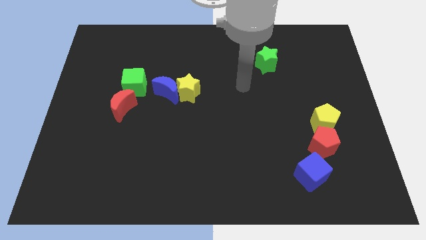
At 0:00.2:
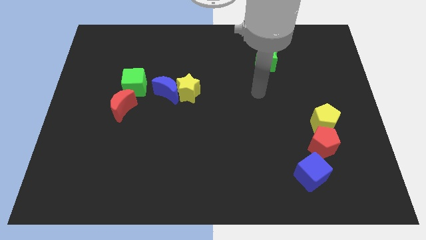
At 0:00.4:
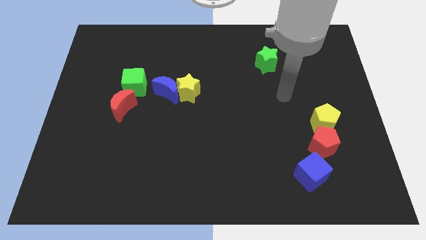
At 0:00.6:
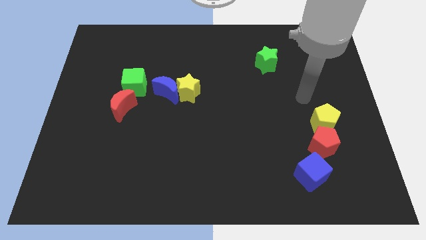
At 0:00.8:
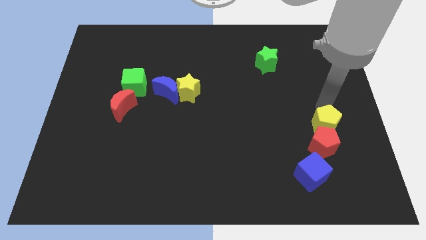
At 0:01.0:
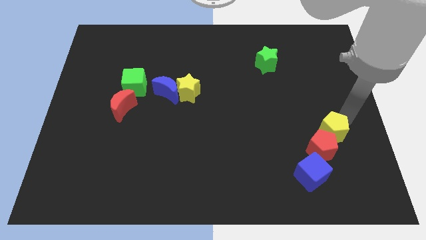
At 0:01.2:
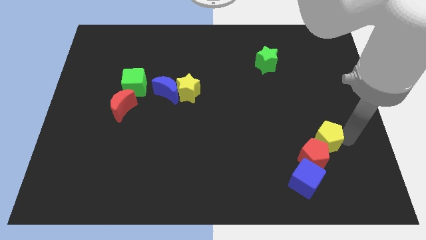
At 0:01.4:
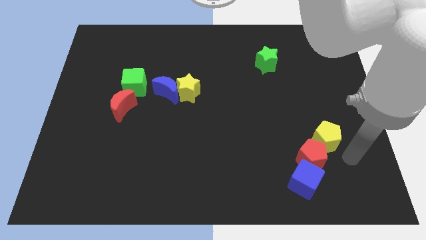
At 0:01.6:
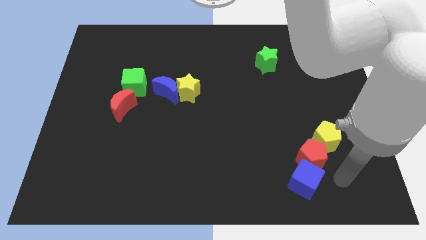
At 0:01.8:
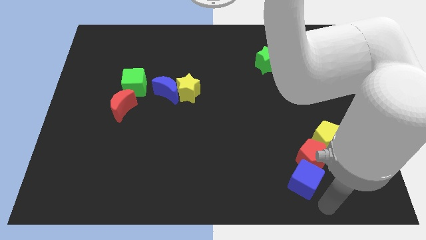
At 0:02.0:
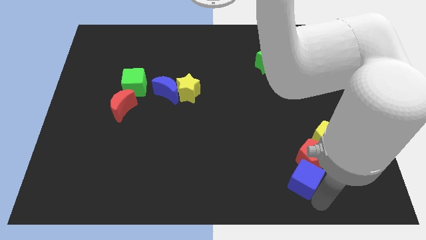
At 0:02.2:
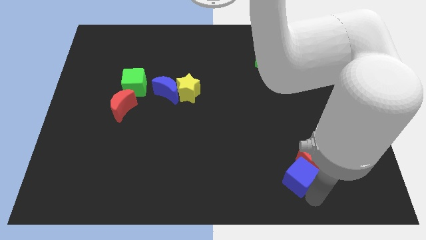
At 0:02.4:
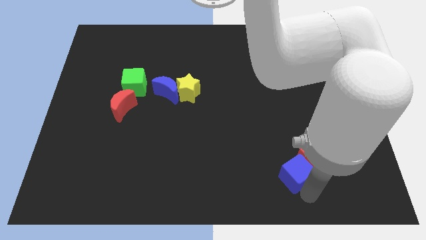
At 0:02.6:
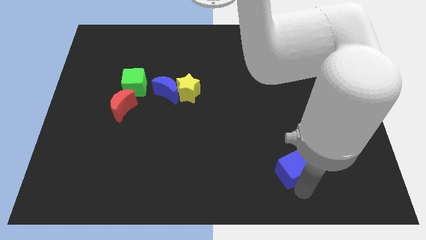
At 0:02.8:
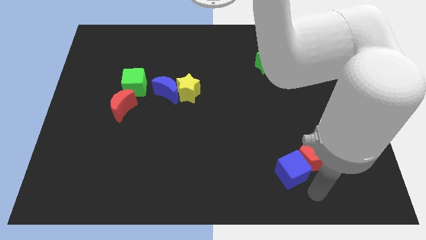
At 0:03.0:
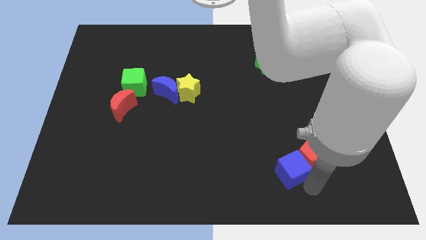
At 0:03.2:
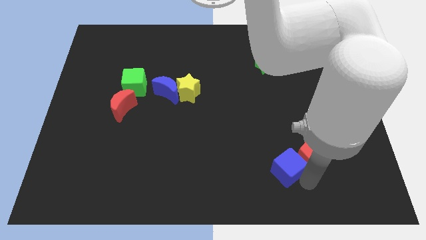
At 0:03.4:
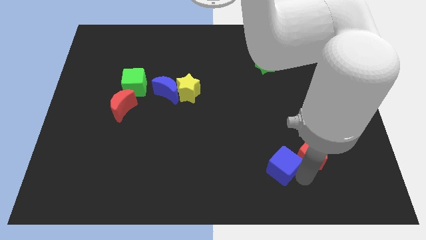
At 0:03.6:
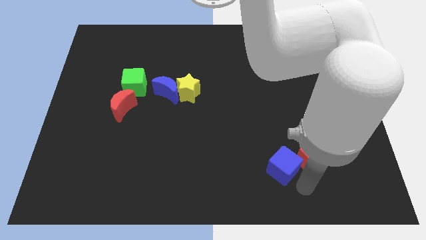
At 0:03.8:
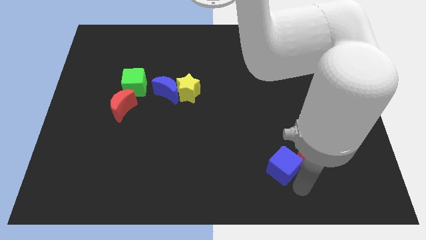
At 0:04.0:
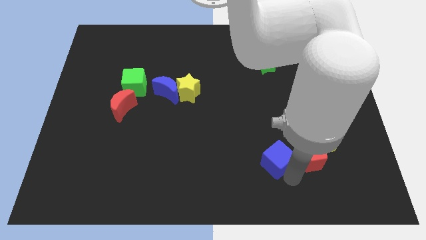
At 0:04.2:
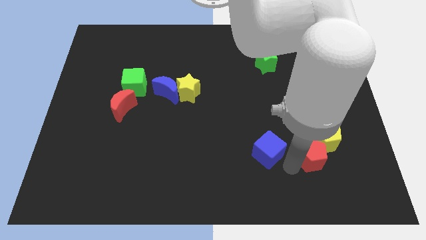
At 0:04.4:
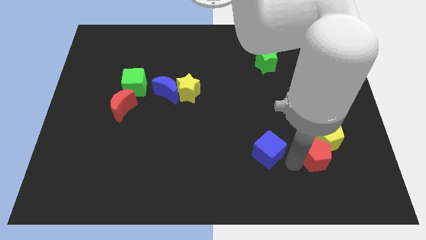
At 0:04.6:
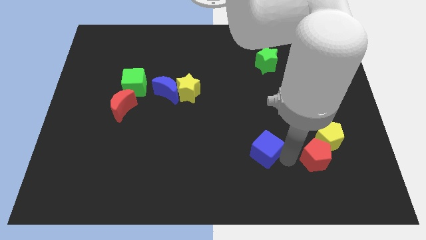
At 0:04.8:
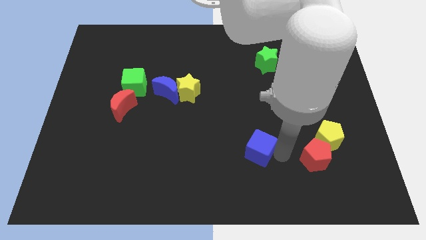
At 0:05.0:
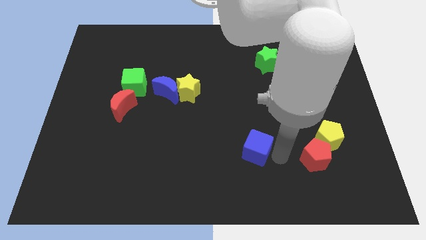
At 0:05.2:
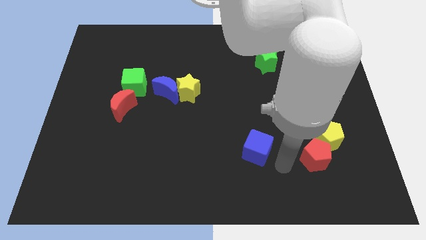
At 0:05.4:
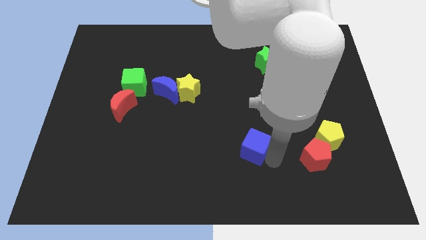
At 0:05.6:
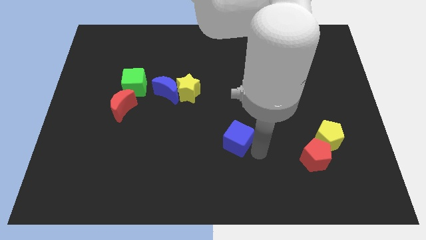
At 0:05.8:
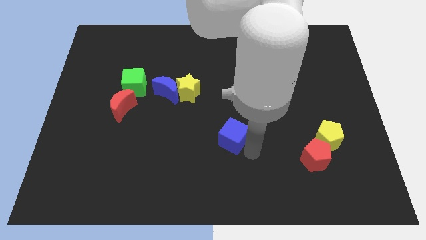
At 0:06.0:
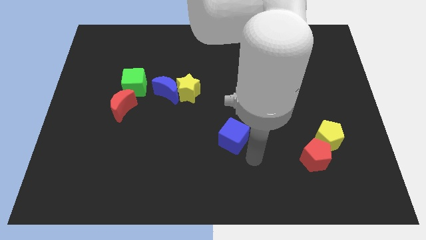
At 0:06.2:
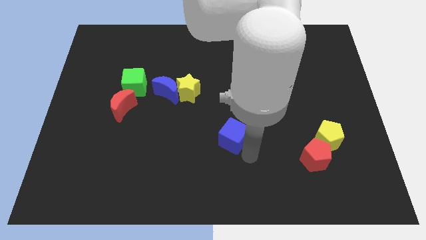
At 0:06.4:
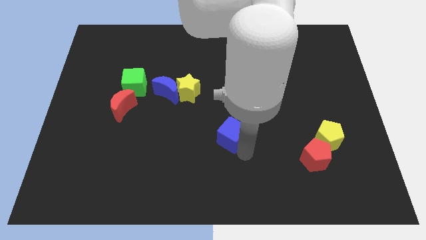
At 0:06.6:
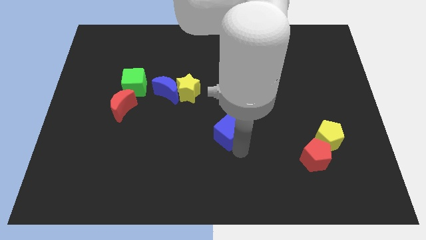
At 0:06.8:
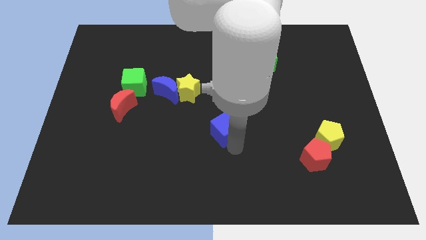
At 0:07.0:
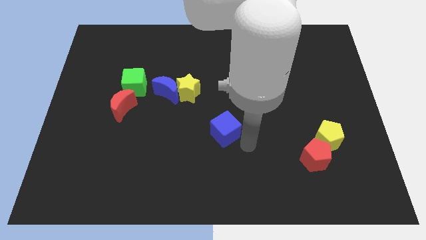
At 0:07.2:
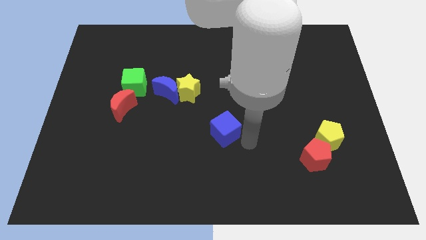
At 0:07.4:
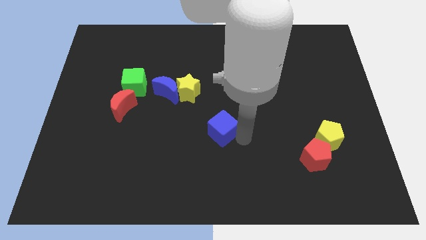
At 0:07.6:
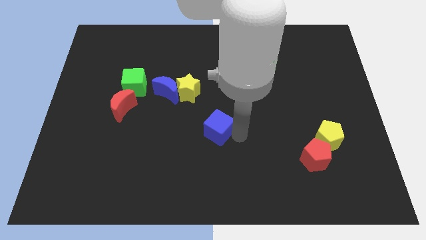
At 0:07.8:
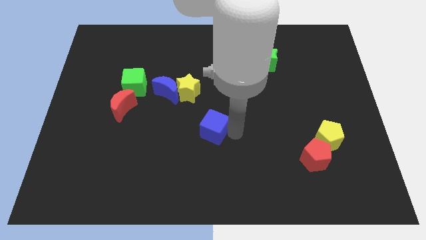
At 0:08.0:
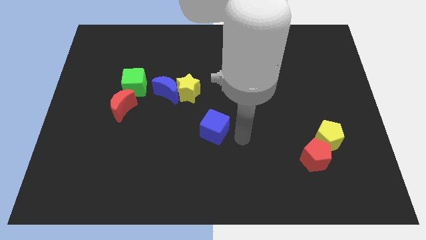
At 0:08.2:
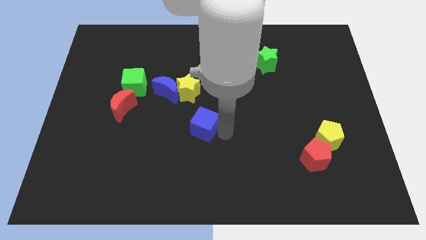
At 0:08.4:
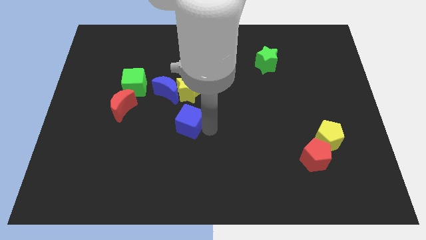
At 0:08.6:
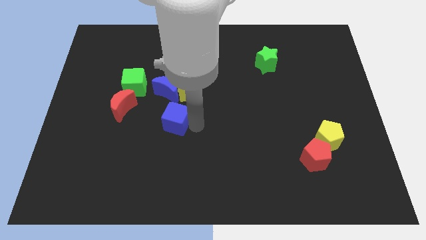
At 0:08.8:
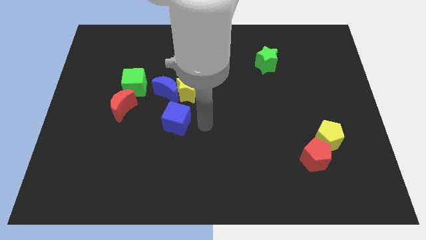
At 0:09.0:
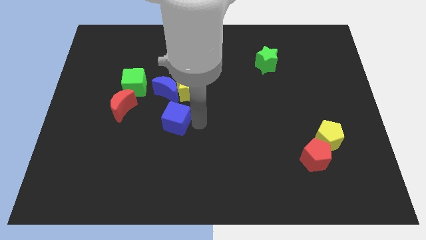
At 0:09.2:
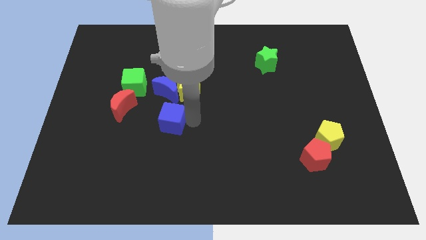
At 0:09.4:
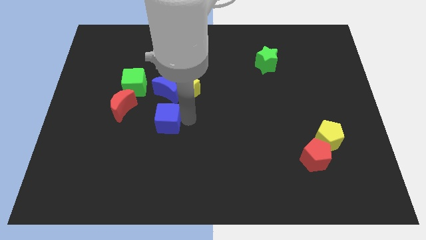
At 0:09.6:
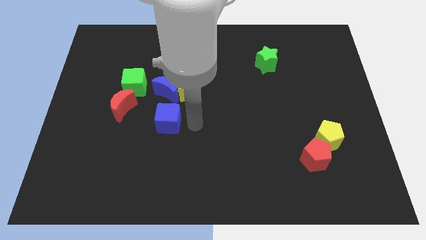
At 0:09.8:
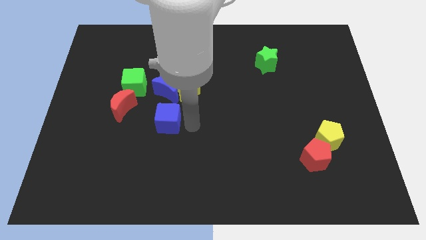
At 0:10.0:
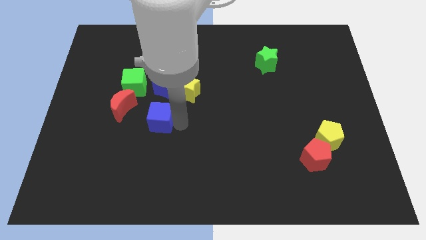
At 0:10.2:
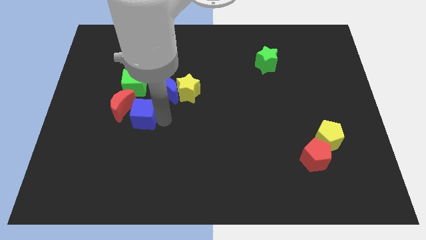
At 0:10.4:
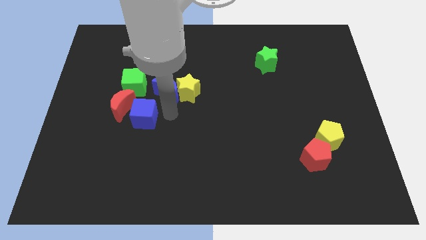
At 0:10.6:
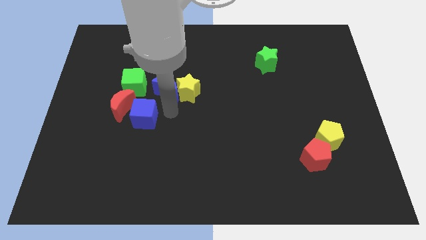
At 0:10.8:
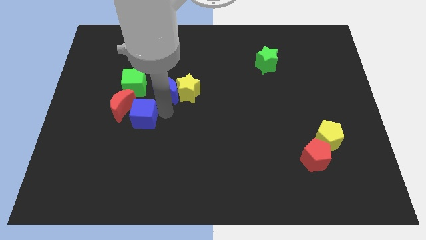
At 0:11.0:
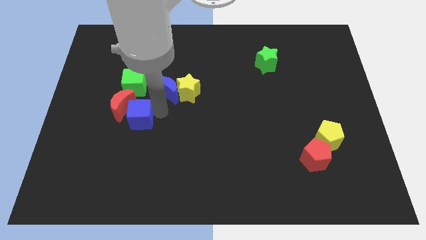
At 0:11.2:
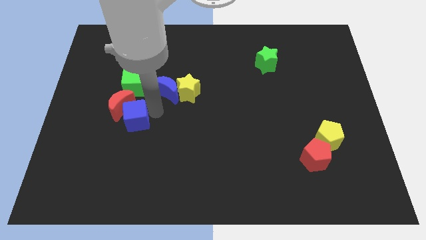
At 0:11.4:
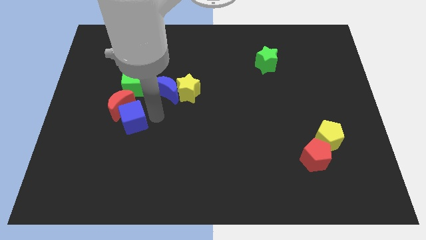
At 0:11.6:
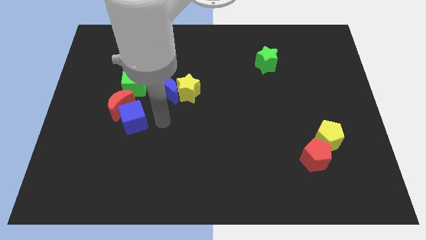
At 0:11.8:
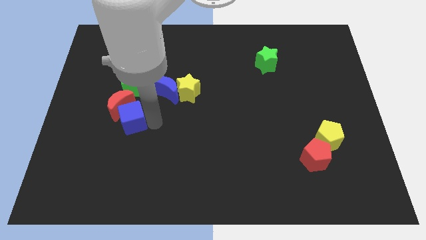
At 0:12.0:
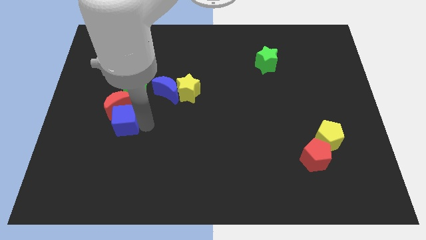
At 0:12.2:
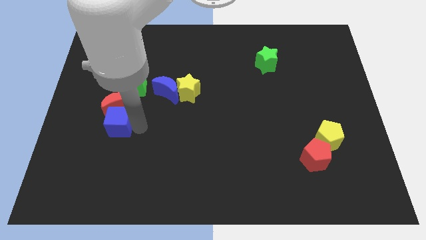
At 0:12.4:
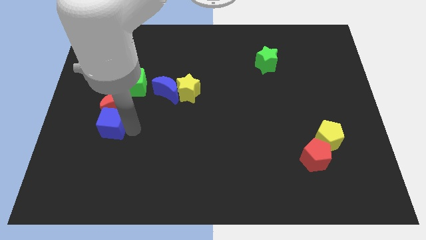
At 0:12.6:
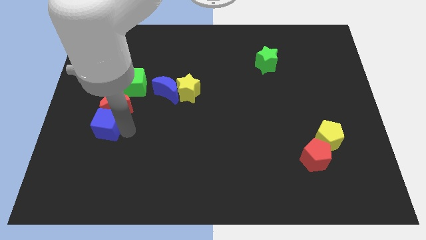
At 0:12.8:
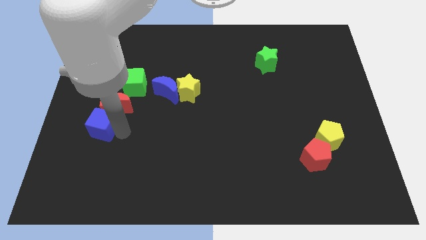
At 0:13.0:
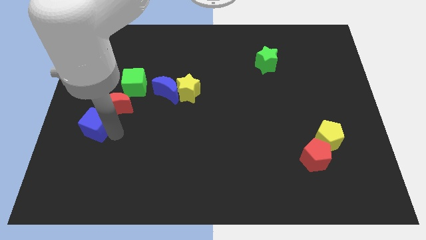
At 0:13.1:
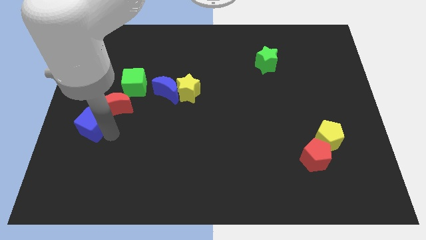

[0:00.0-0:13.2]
put the blue cube to the center left
